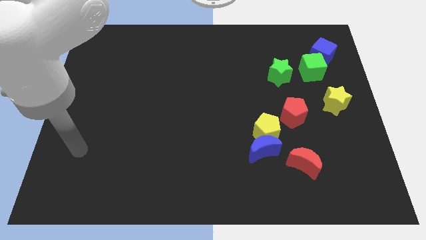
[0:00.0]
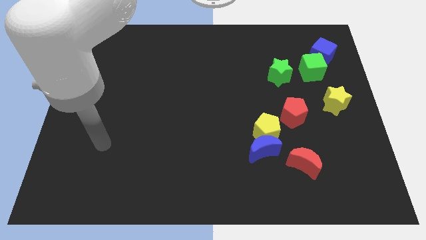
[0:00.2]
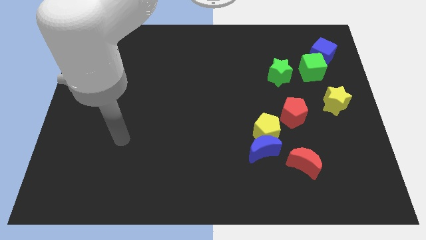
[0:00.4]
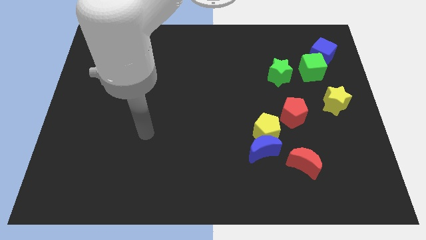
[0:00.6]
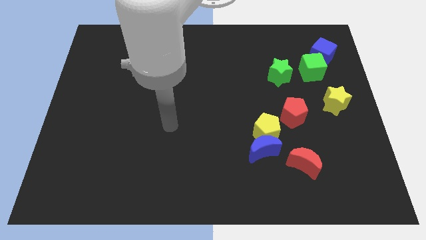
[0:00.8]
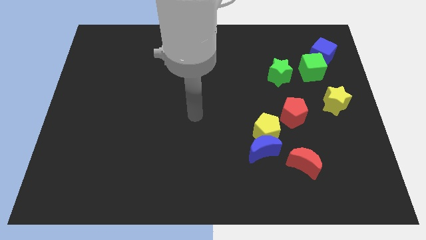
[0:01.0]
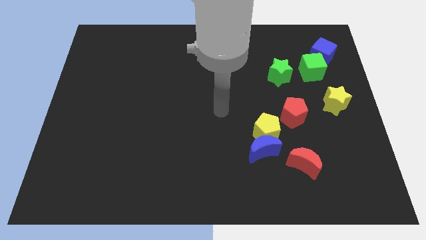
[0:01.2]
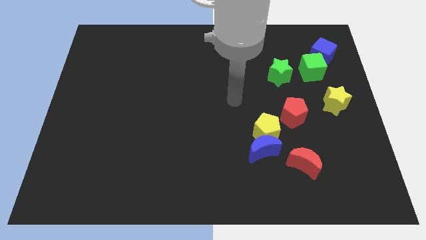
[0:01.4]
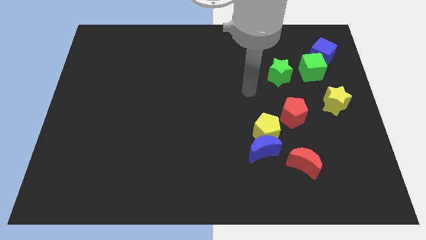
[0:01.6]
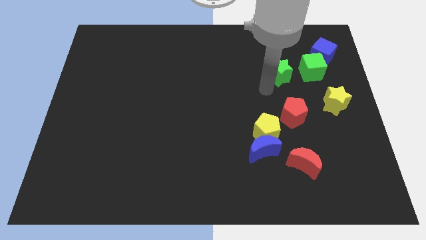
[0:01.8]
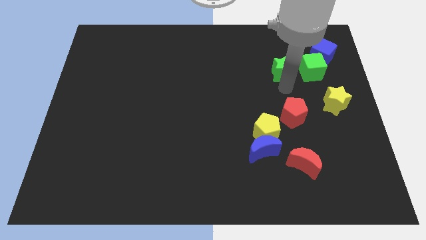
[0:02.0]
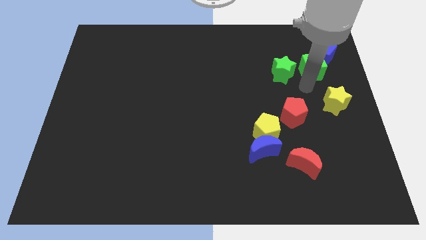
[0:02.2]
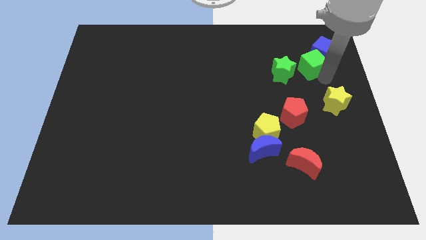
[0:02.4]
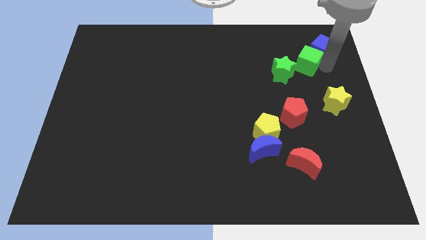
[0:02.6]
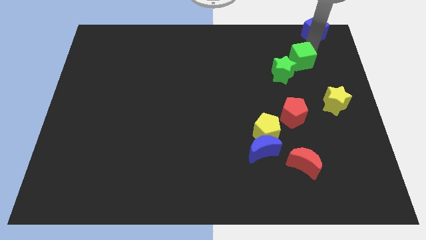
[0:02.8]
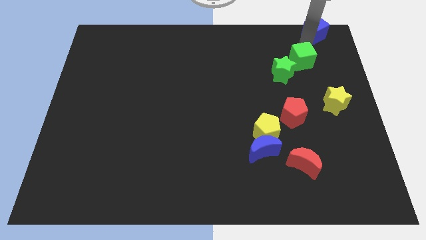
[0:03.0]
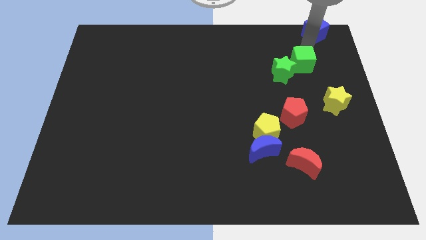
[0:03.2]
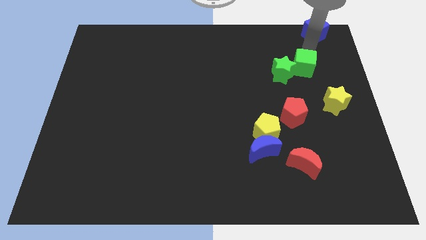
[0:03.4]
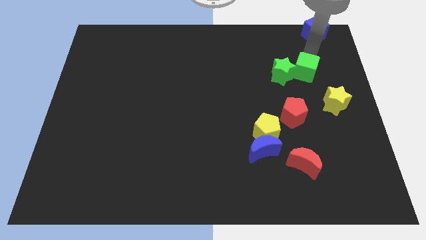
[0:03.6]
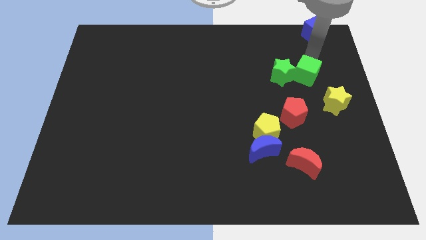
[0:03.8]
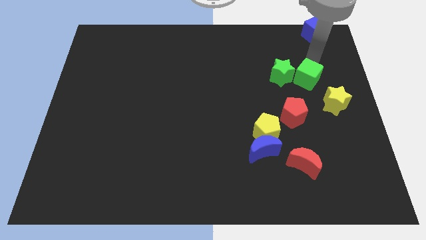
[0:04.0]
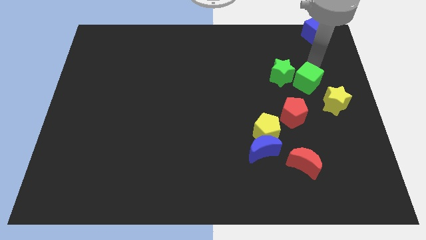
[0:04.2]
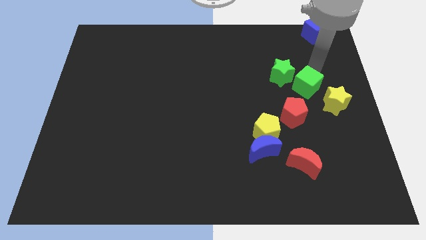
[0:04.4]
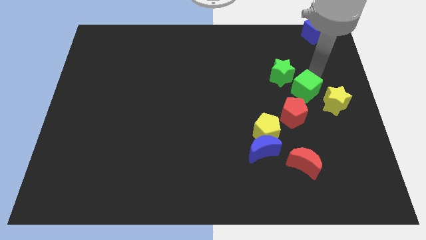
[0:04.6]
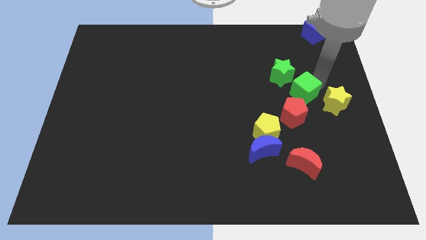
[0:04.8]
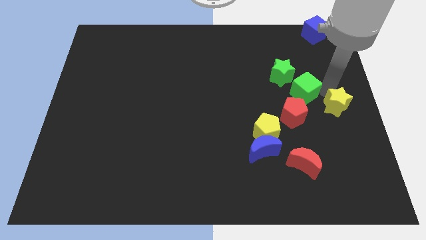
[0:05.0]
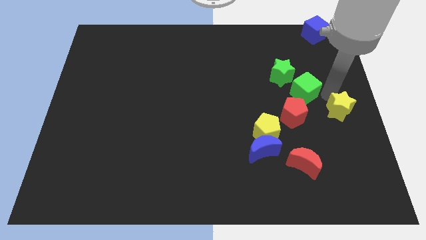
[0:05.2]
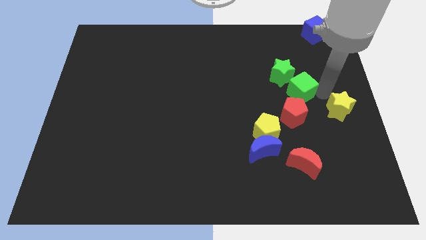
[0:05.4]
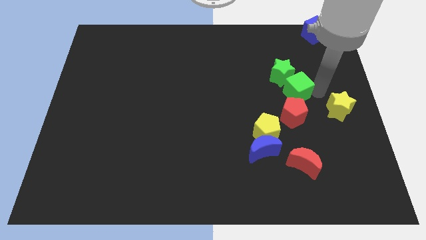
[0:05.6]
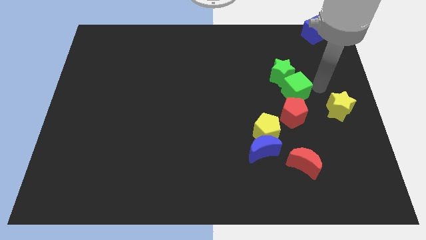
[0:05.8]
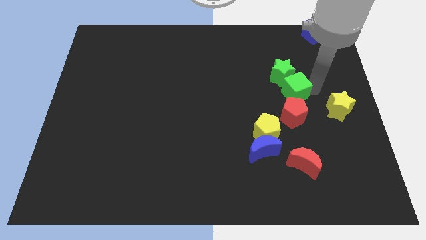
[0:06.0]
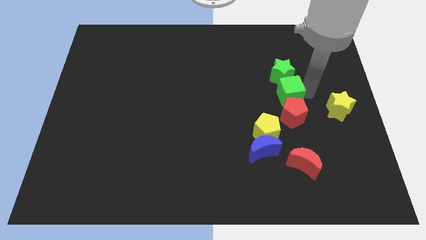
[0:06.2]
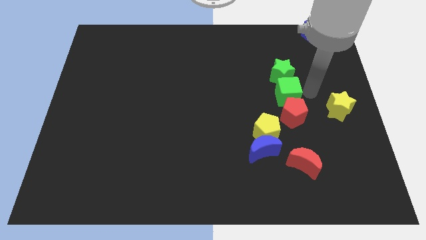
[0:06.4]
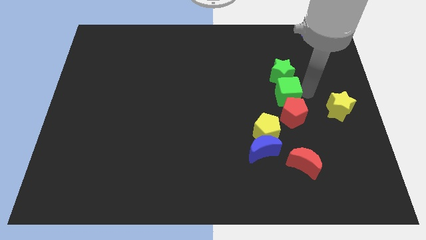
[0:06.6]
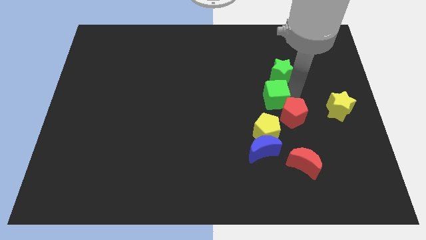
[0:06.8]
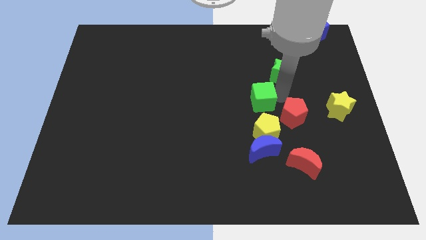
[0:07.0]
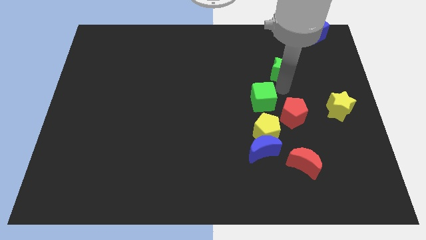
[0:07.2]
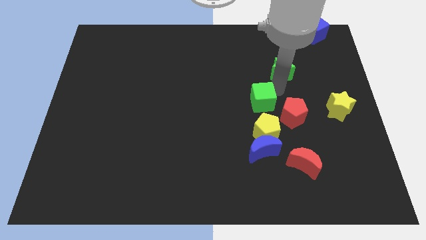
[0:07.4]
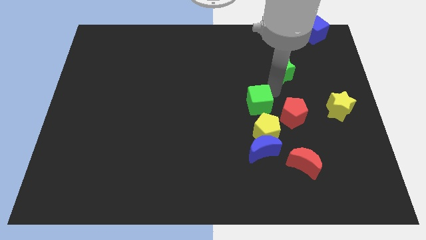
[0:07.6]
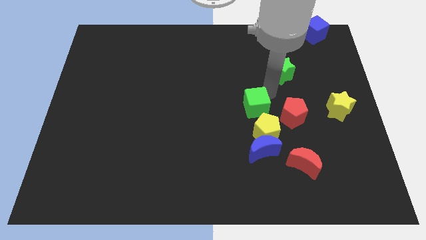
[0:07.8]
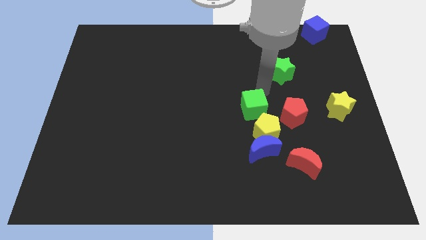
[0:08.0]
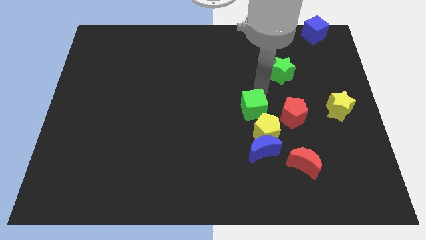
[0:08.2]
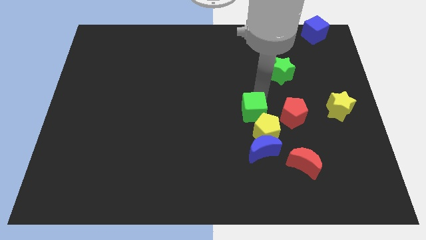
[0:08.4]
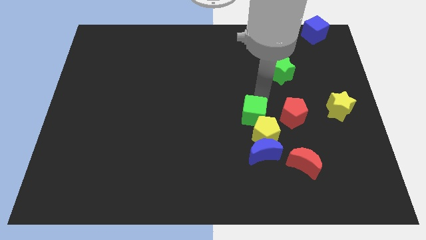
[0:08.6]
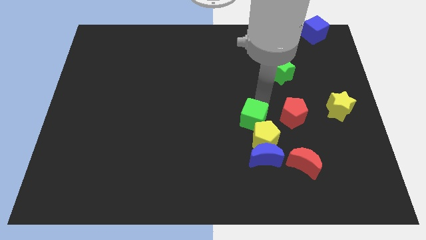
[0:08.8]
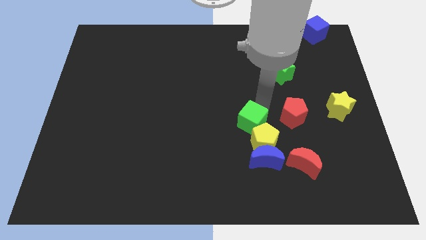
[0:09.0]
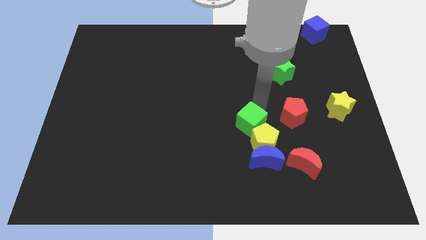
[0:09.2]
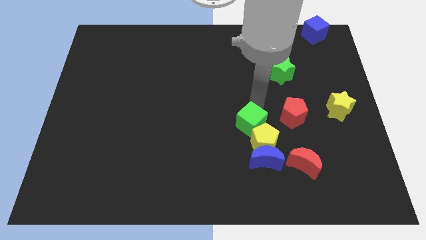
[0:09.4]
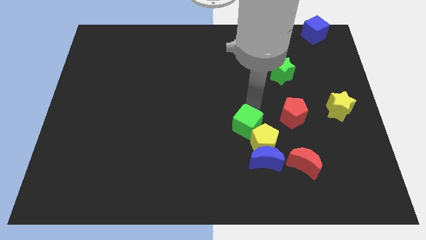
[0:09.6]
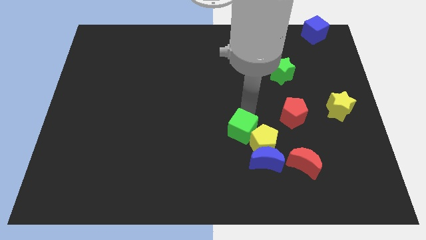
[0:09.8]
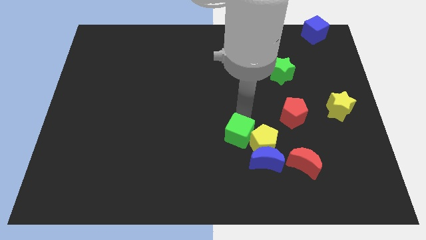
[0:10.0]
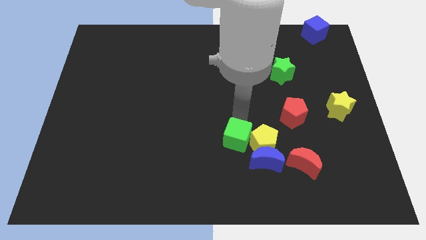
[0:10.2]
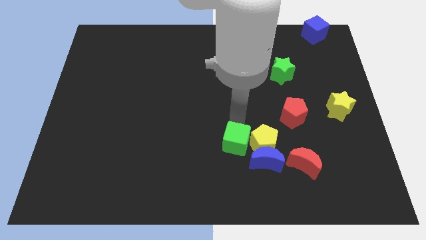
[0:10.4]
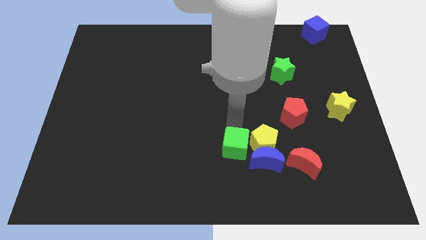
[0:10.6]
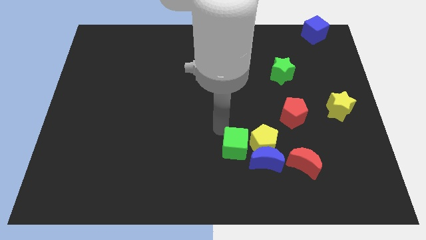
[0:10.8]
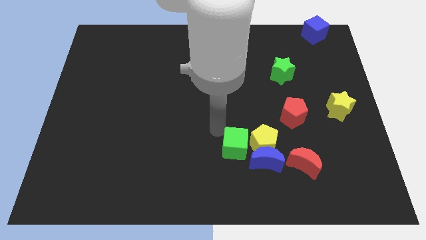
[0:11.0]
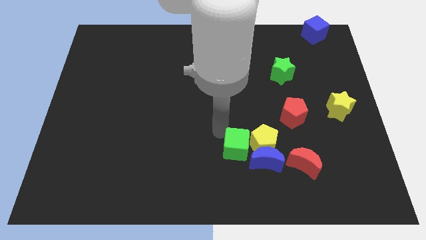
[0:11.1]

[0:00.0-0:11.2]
put the green cube to the left side of the red moon

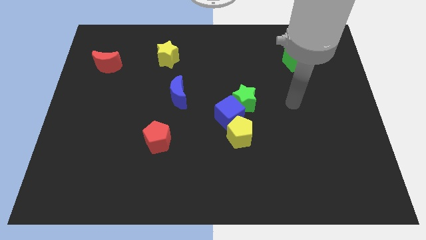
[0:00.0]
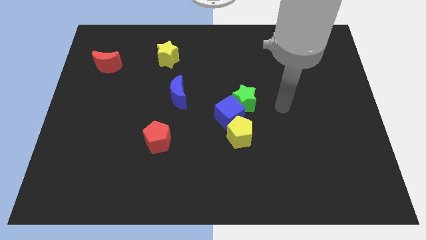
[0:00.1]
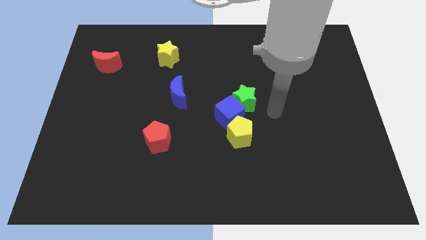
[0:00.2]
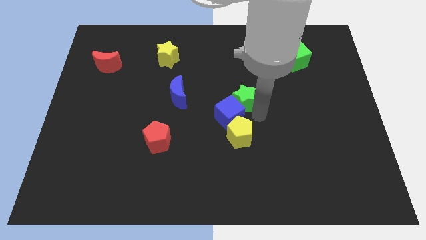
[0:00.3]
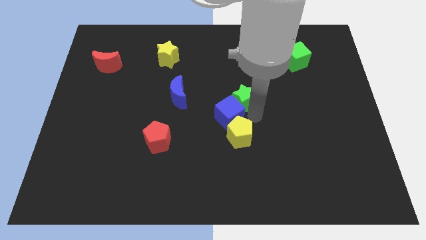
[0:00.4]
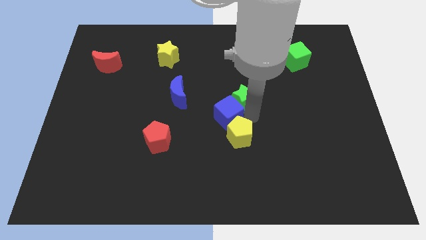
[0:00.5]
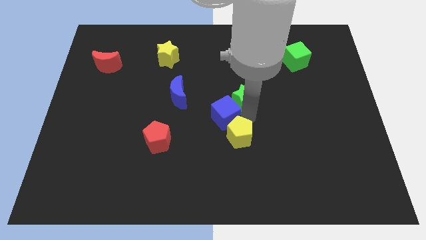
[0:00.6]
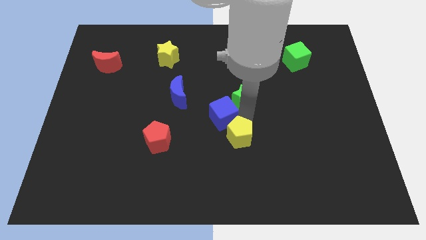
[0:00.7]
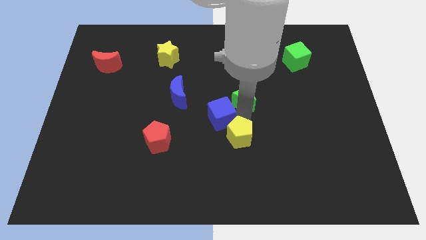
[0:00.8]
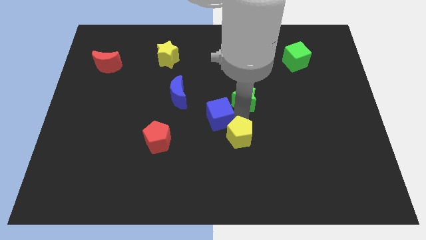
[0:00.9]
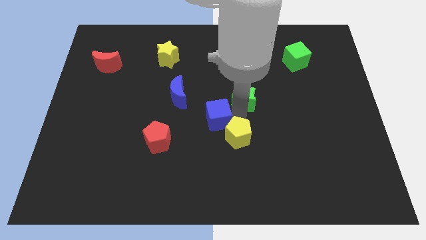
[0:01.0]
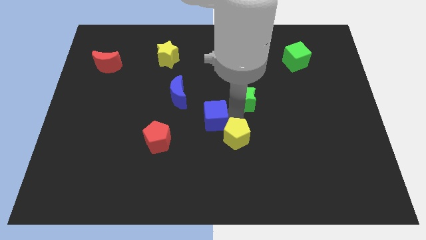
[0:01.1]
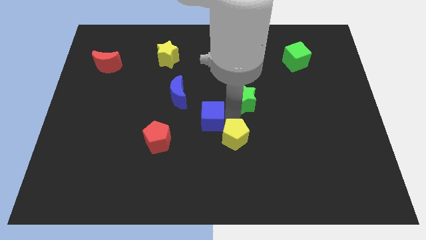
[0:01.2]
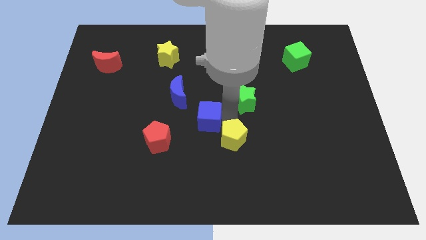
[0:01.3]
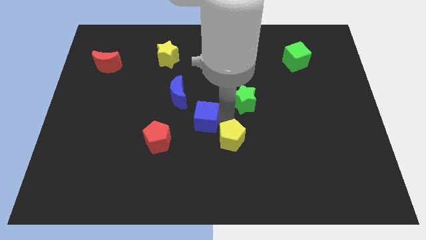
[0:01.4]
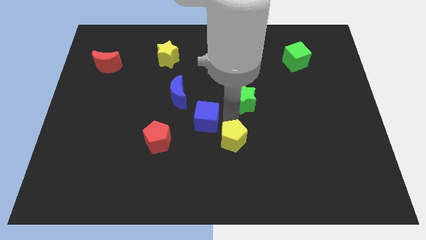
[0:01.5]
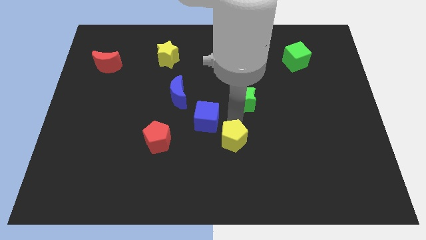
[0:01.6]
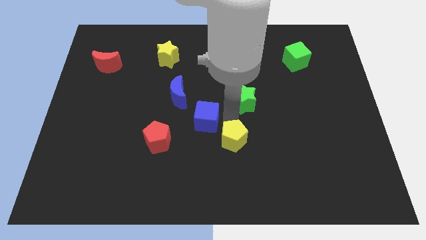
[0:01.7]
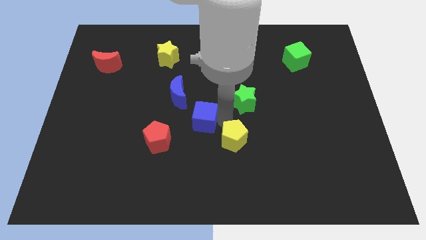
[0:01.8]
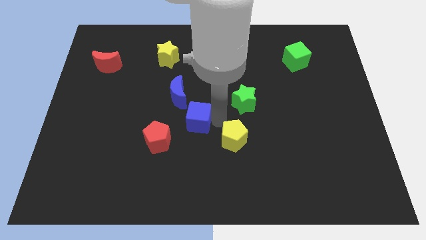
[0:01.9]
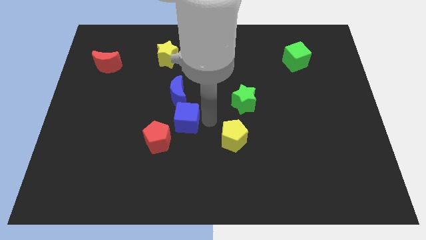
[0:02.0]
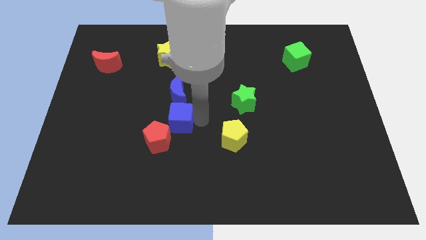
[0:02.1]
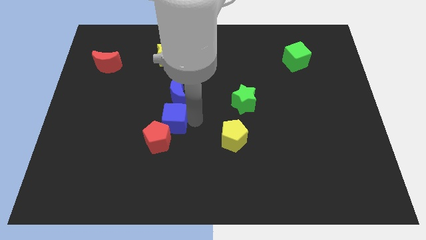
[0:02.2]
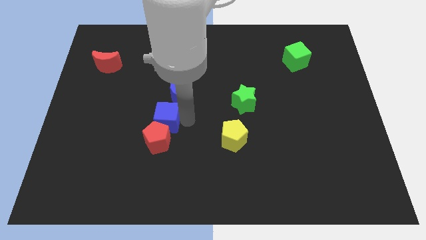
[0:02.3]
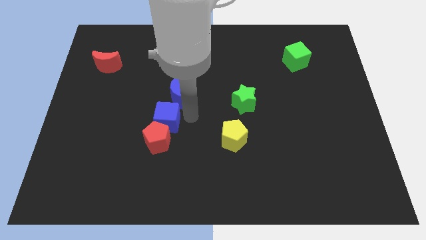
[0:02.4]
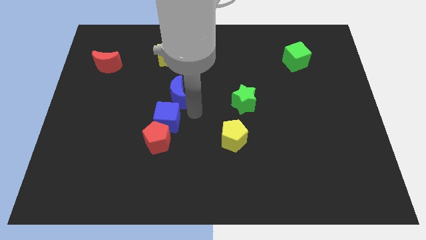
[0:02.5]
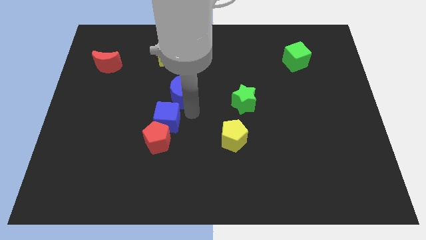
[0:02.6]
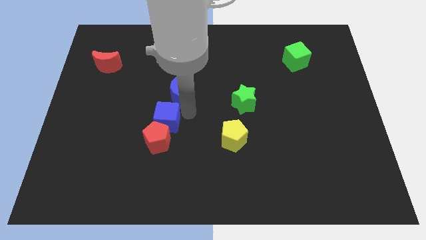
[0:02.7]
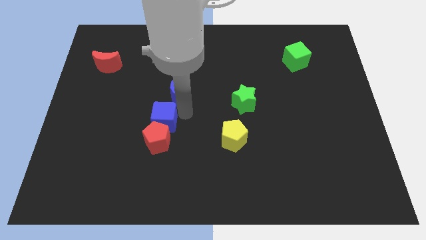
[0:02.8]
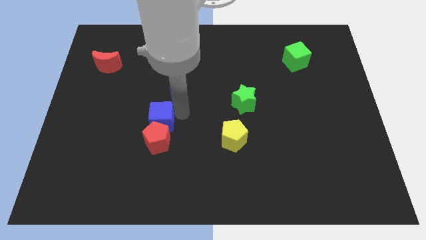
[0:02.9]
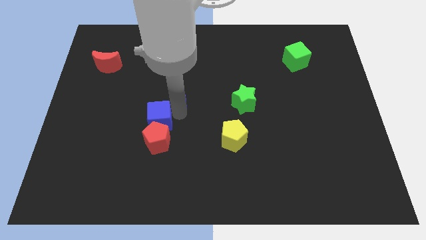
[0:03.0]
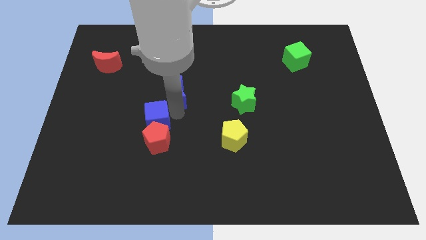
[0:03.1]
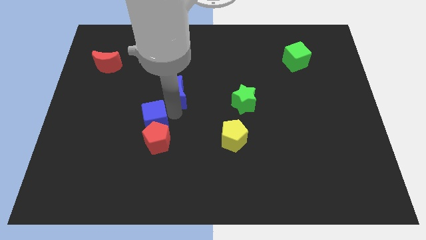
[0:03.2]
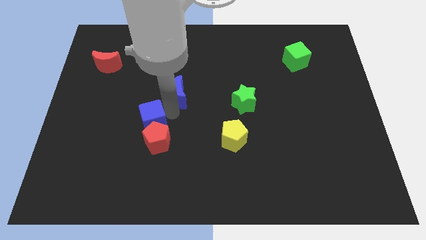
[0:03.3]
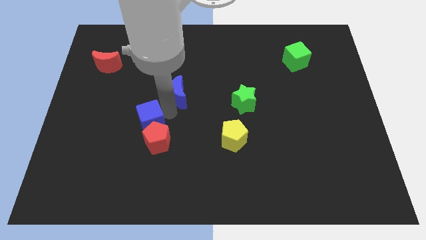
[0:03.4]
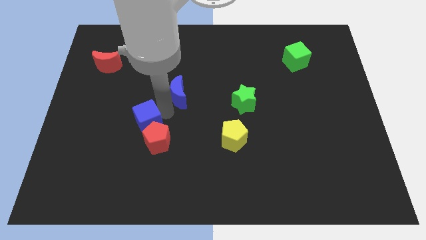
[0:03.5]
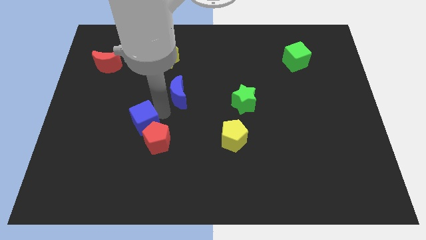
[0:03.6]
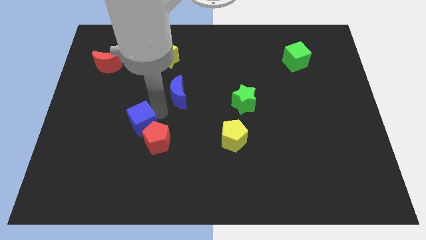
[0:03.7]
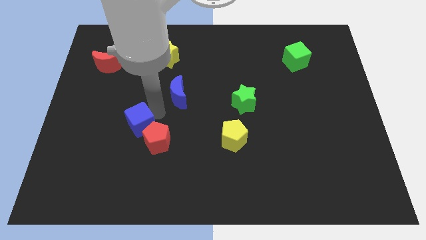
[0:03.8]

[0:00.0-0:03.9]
put the blue cube just left of the red pentagon
